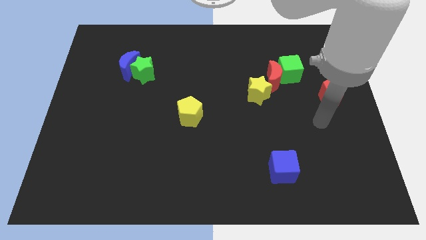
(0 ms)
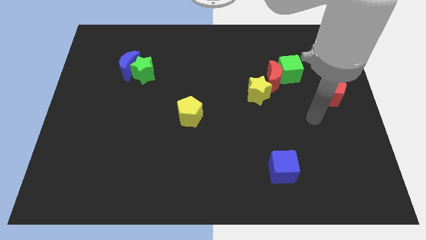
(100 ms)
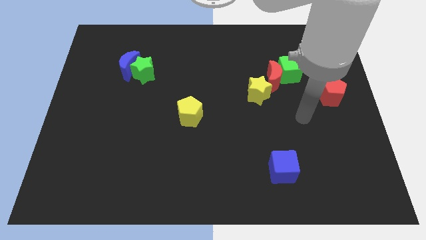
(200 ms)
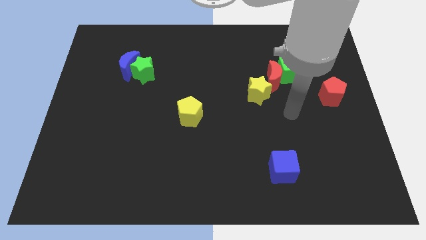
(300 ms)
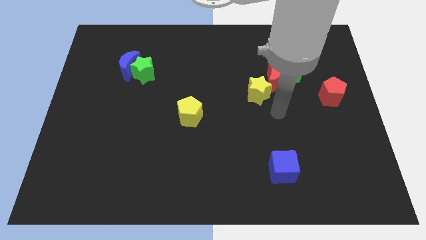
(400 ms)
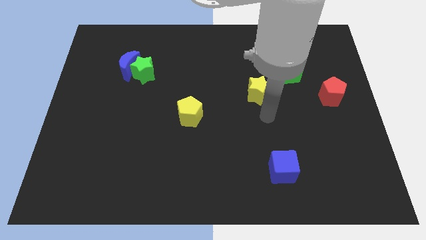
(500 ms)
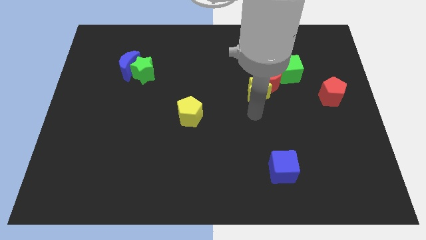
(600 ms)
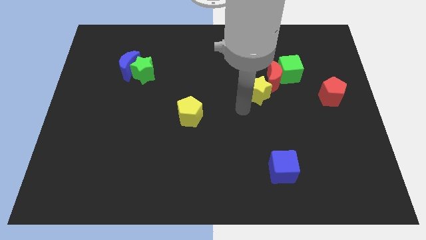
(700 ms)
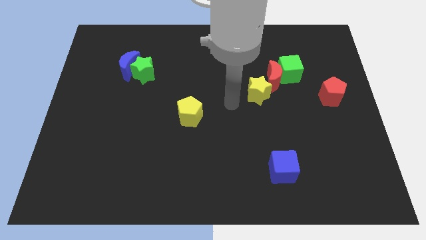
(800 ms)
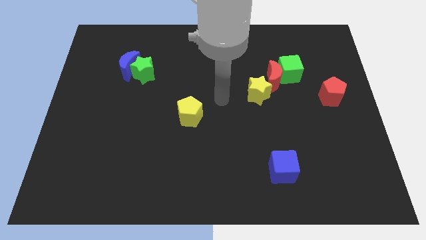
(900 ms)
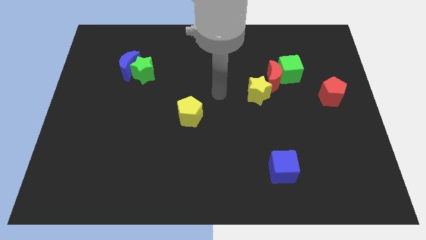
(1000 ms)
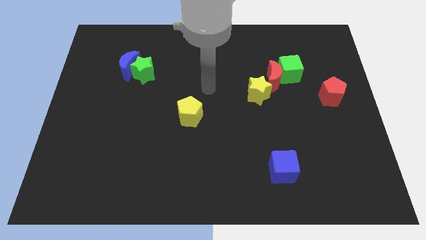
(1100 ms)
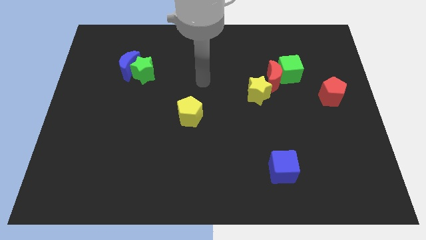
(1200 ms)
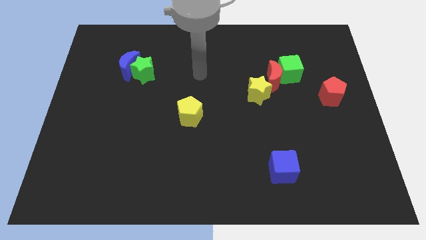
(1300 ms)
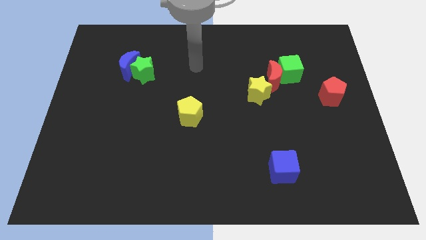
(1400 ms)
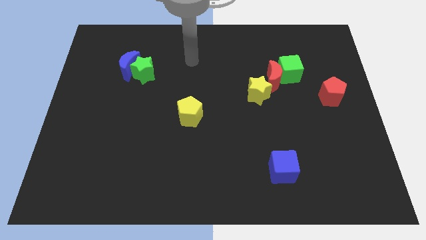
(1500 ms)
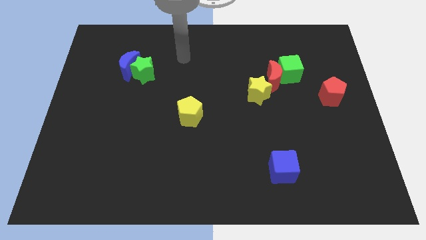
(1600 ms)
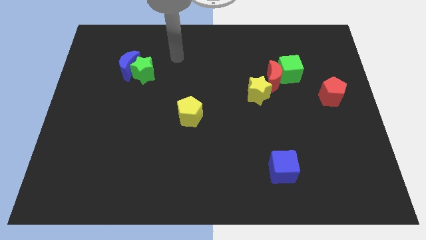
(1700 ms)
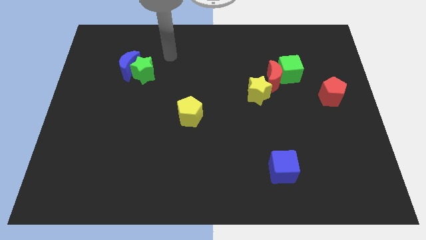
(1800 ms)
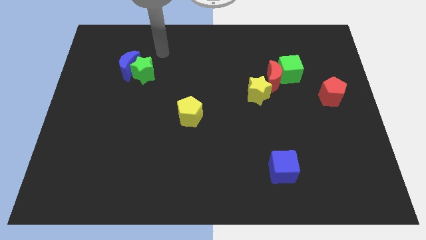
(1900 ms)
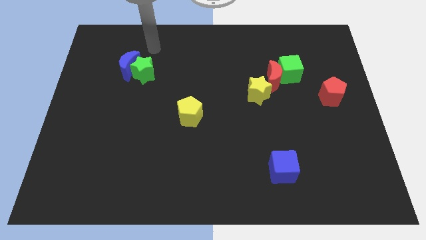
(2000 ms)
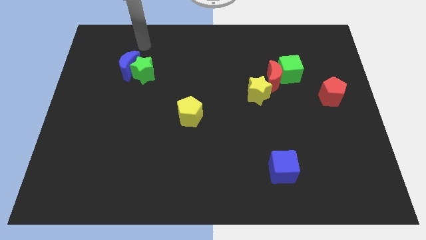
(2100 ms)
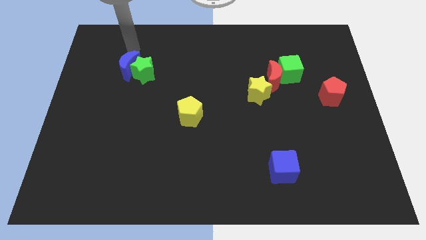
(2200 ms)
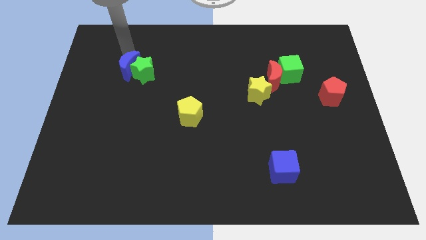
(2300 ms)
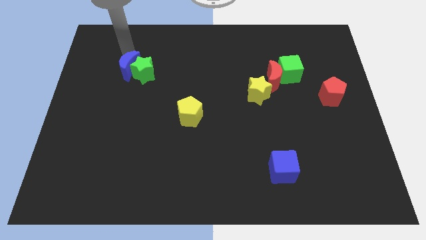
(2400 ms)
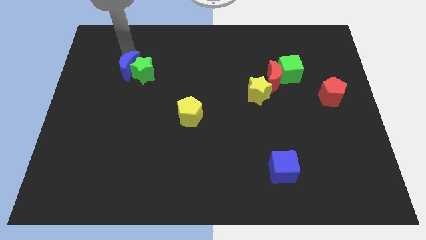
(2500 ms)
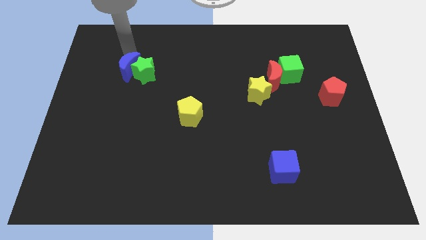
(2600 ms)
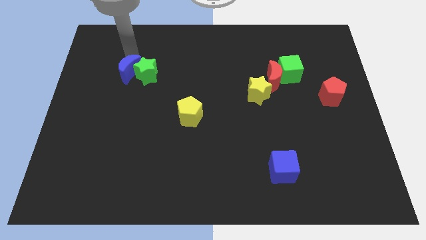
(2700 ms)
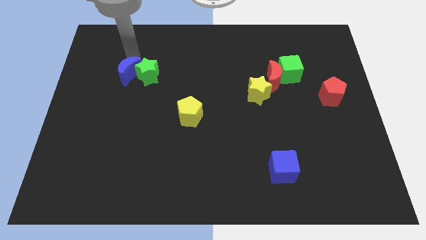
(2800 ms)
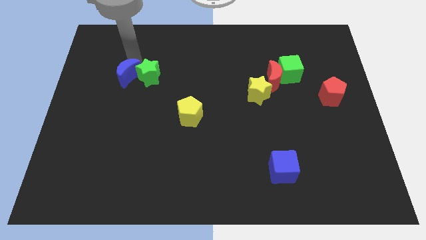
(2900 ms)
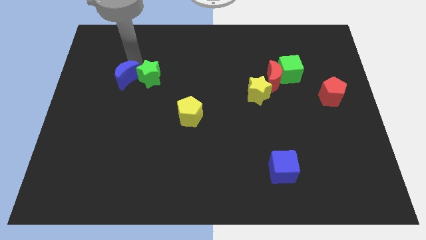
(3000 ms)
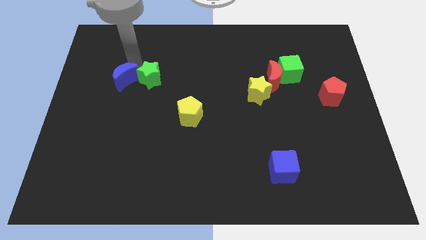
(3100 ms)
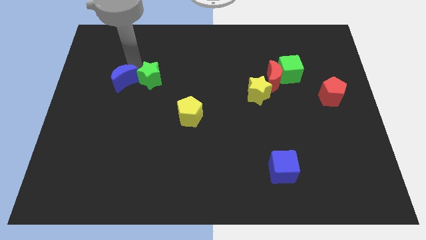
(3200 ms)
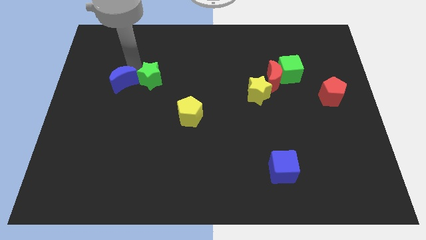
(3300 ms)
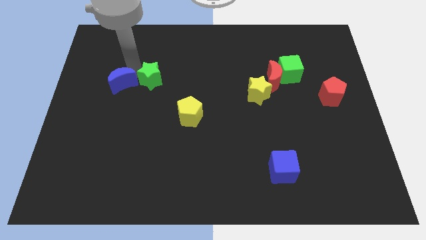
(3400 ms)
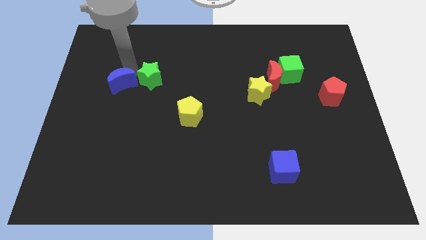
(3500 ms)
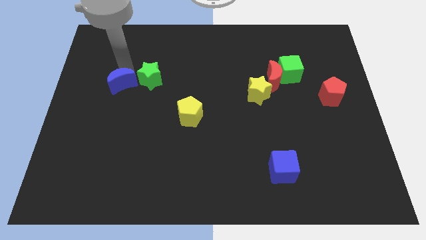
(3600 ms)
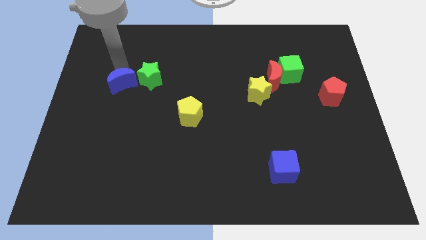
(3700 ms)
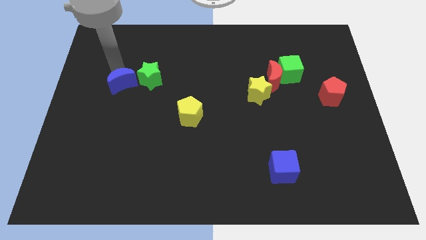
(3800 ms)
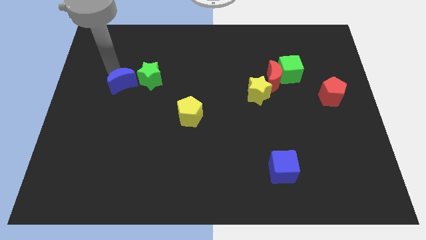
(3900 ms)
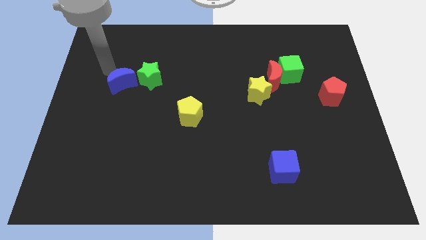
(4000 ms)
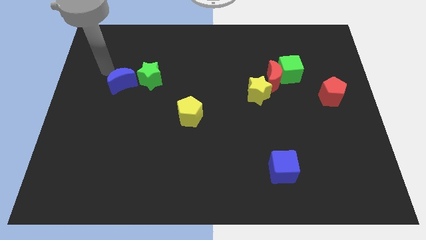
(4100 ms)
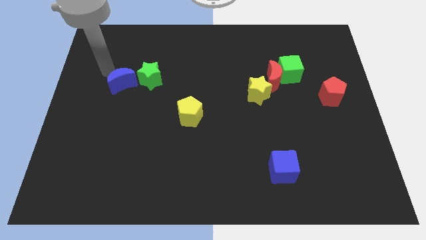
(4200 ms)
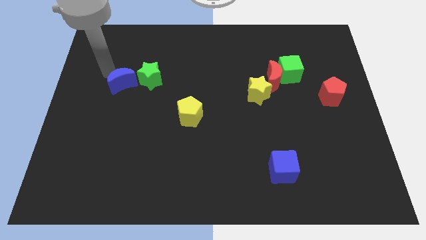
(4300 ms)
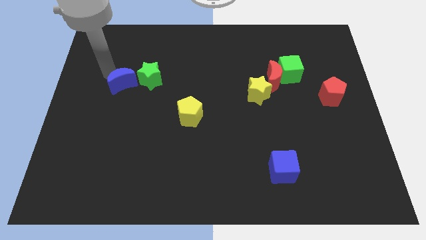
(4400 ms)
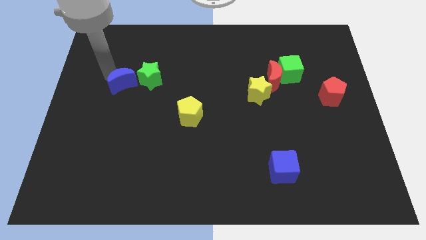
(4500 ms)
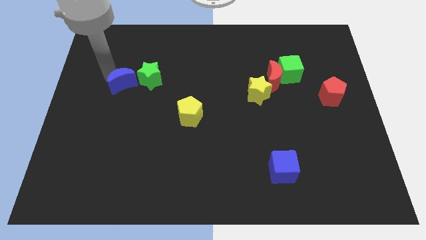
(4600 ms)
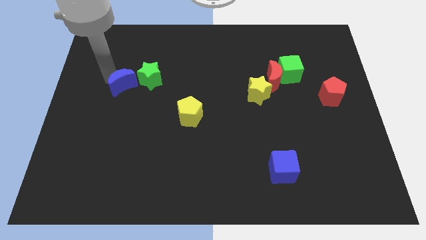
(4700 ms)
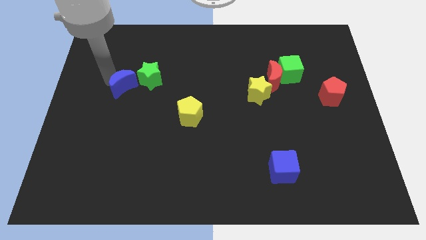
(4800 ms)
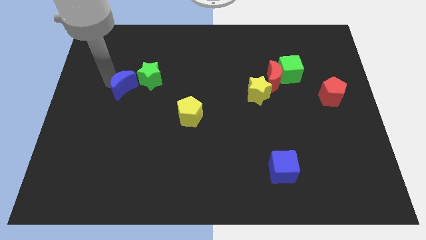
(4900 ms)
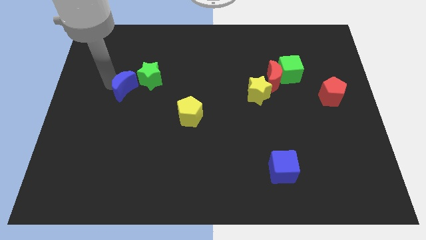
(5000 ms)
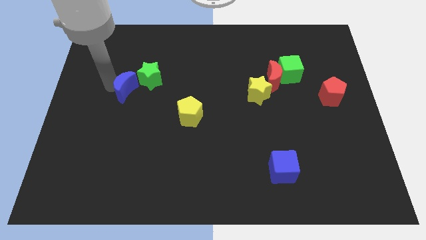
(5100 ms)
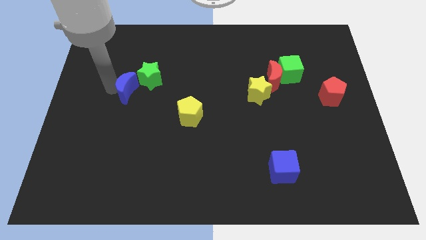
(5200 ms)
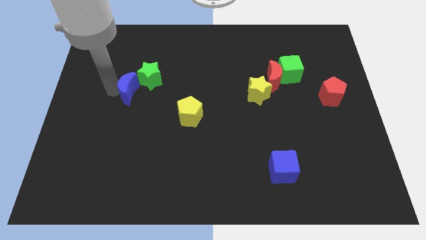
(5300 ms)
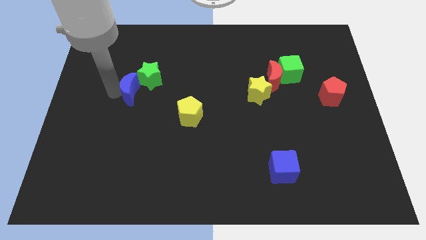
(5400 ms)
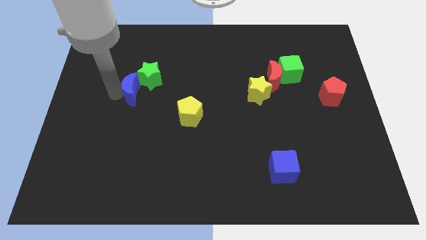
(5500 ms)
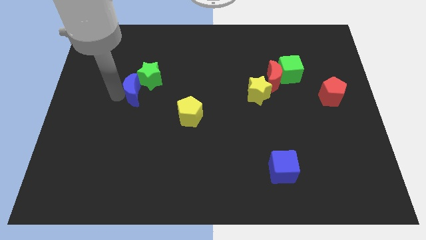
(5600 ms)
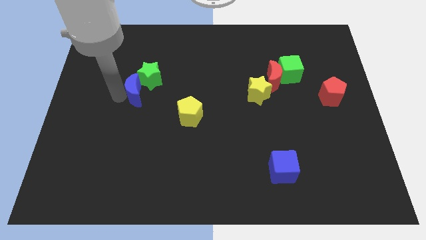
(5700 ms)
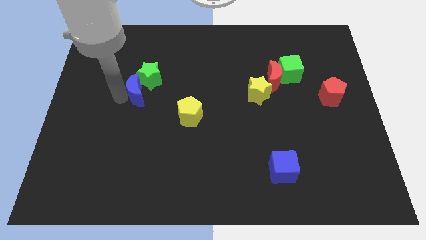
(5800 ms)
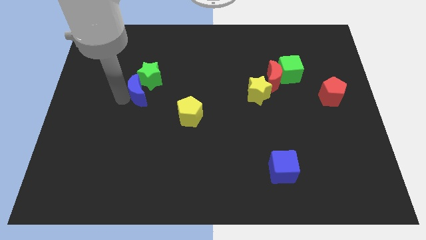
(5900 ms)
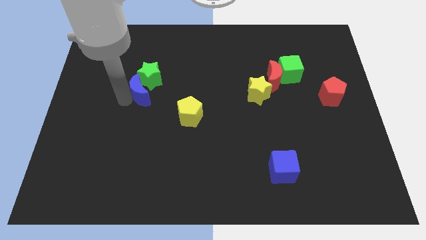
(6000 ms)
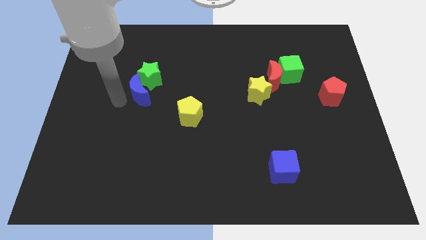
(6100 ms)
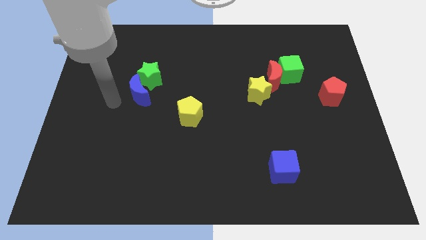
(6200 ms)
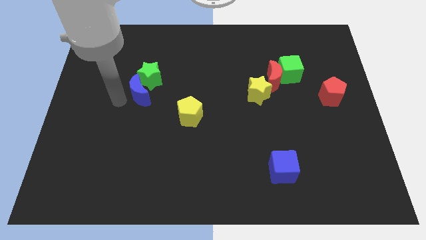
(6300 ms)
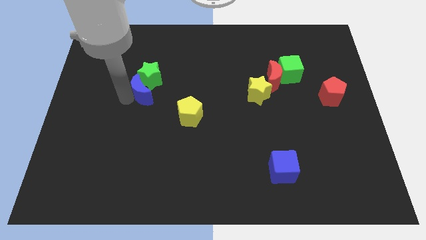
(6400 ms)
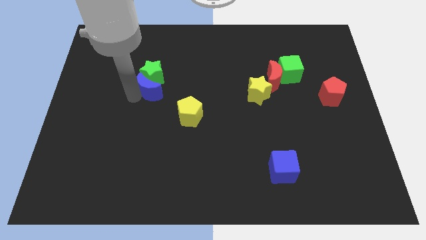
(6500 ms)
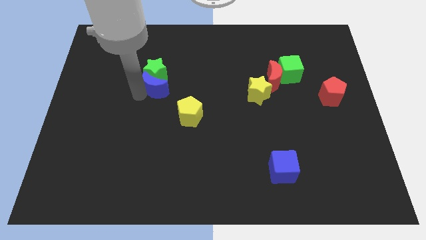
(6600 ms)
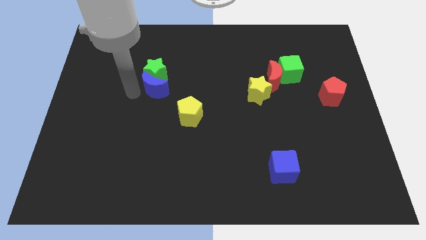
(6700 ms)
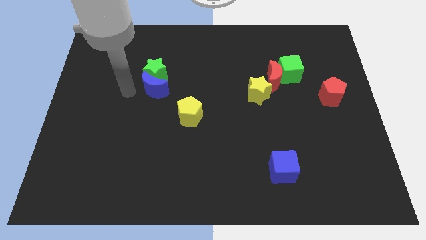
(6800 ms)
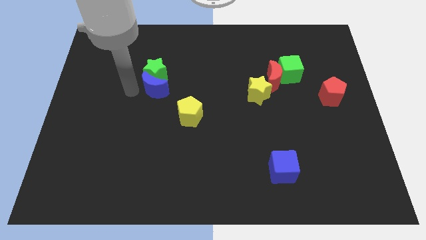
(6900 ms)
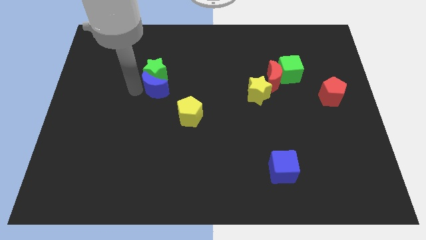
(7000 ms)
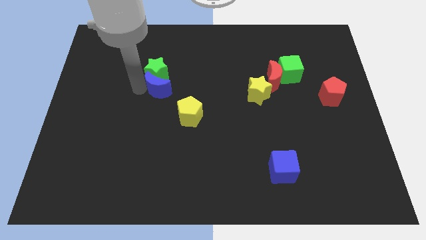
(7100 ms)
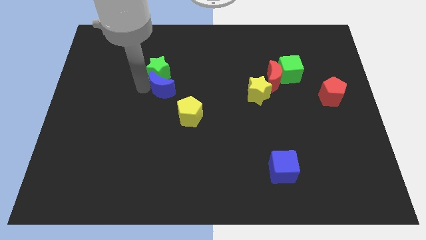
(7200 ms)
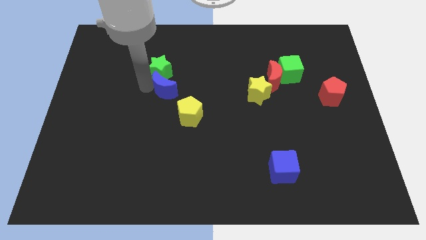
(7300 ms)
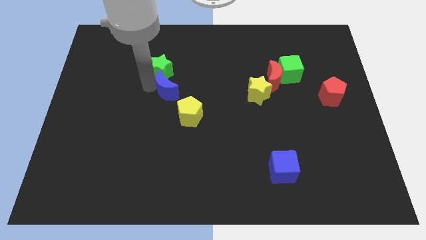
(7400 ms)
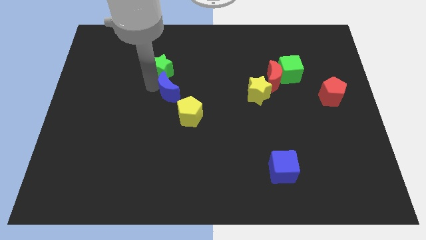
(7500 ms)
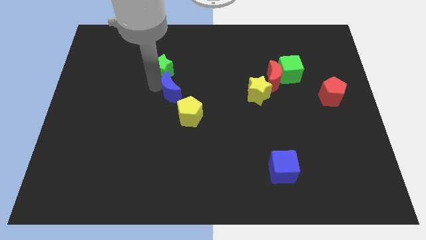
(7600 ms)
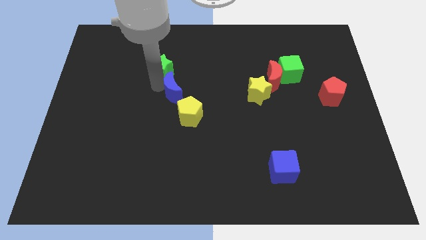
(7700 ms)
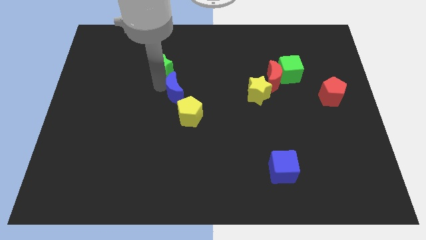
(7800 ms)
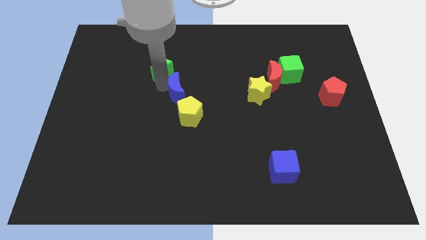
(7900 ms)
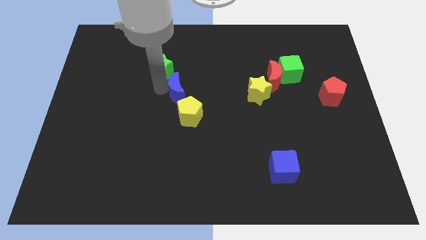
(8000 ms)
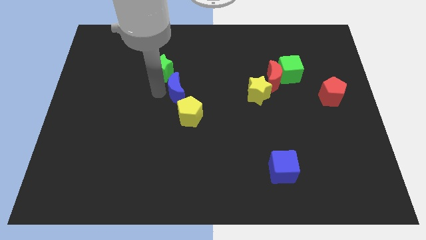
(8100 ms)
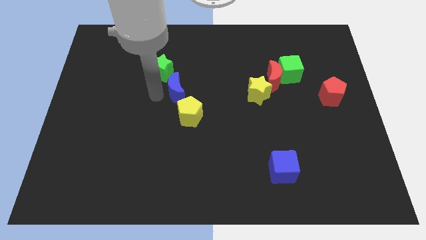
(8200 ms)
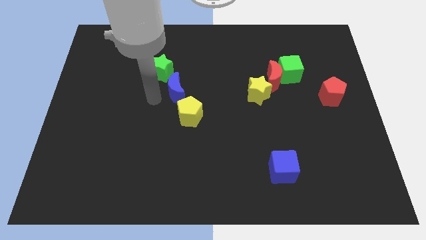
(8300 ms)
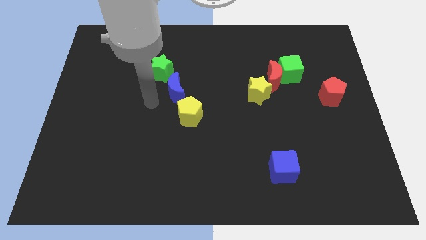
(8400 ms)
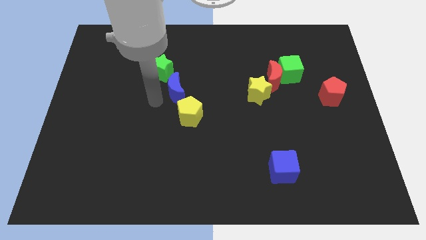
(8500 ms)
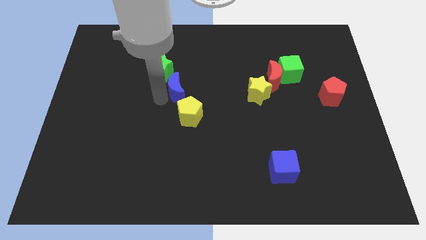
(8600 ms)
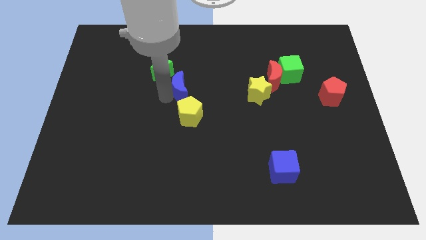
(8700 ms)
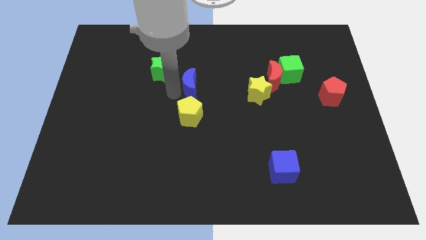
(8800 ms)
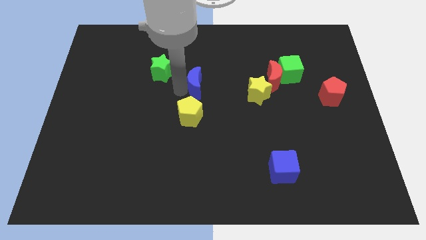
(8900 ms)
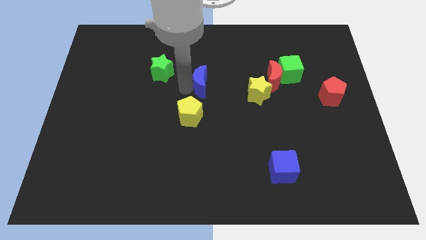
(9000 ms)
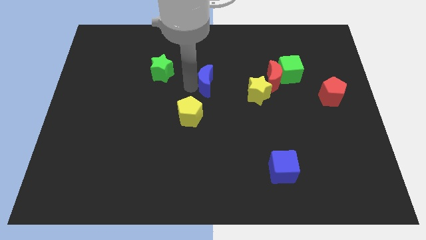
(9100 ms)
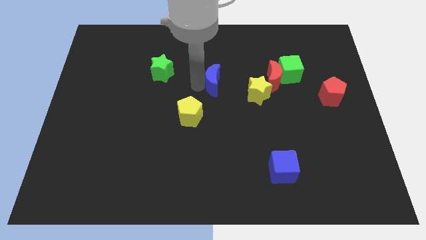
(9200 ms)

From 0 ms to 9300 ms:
slide the blue moon right
